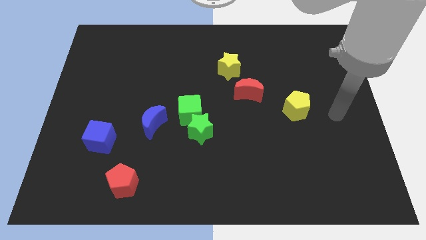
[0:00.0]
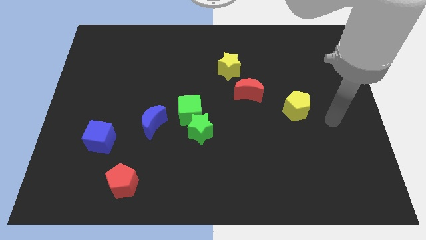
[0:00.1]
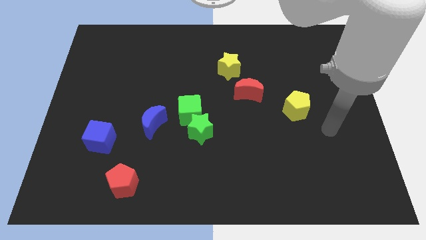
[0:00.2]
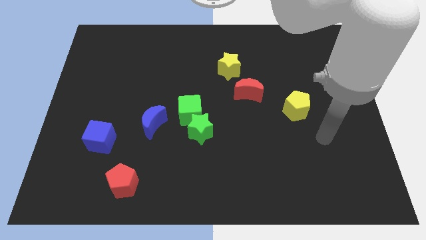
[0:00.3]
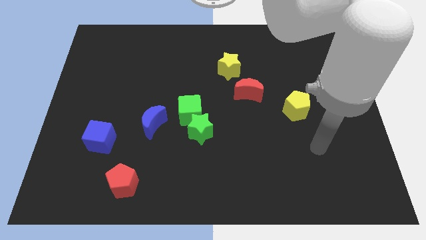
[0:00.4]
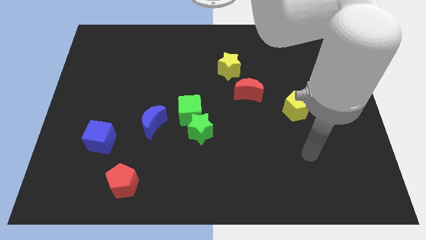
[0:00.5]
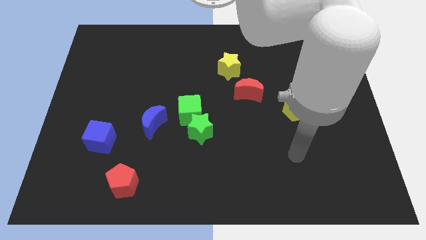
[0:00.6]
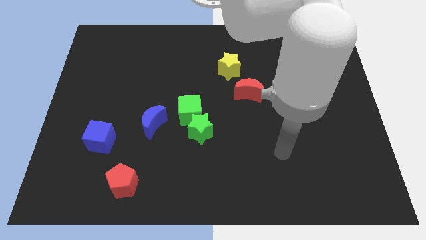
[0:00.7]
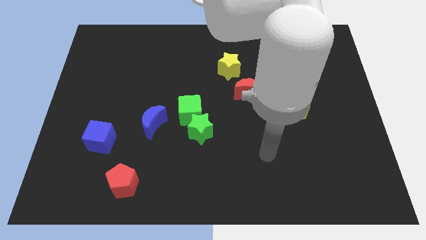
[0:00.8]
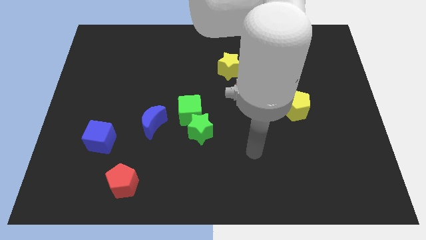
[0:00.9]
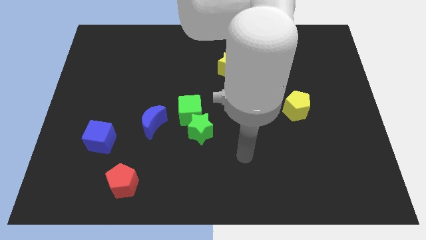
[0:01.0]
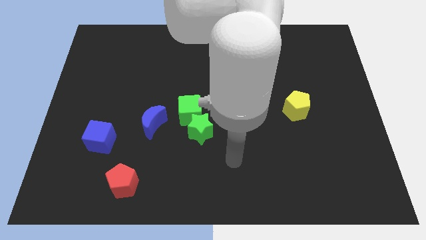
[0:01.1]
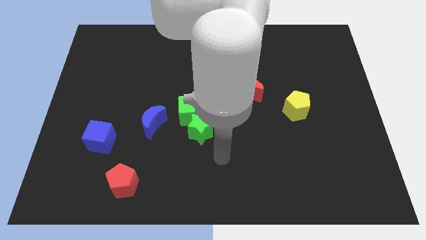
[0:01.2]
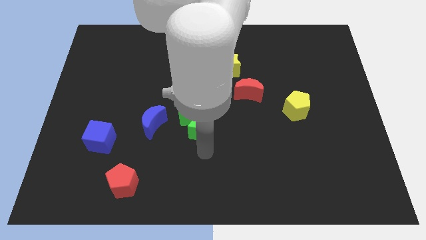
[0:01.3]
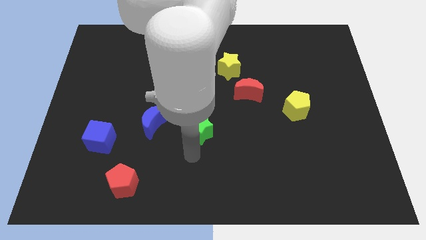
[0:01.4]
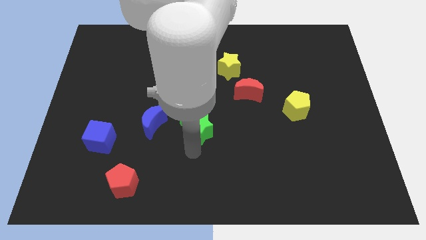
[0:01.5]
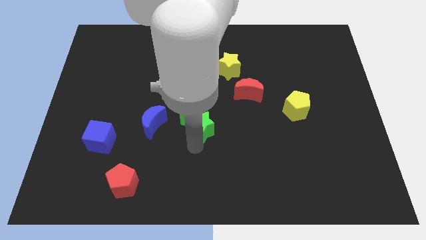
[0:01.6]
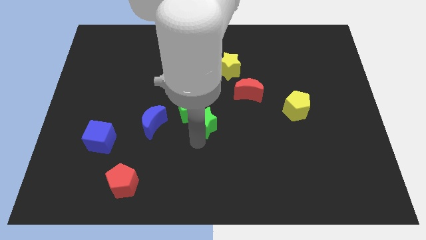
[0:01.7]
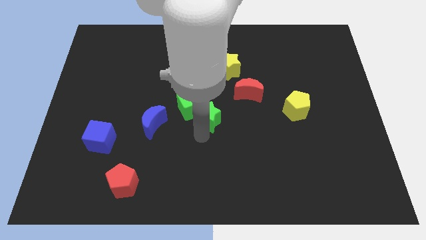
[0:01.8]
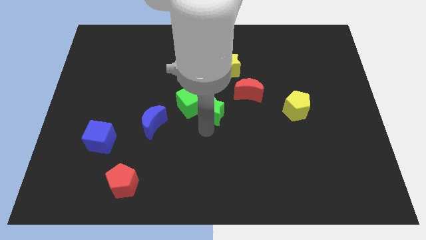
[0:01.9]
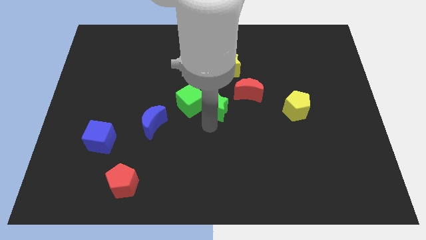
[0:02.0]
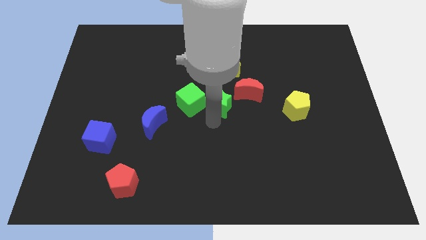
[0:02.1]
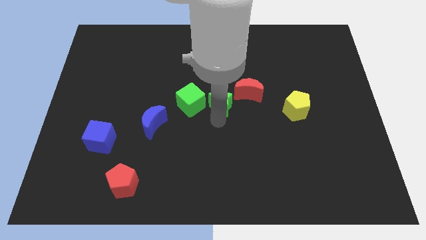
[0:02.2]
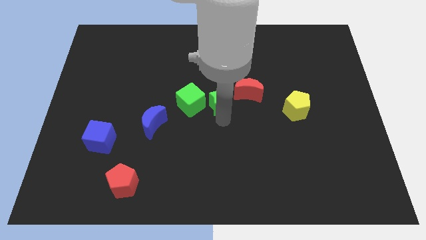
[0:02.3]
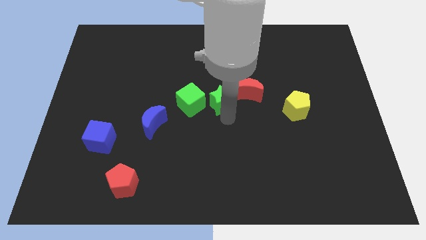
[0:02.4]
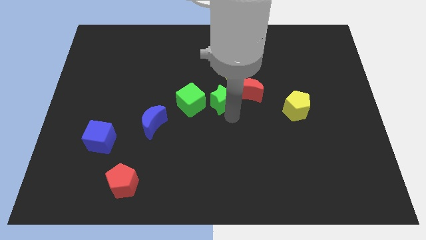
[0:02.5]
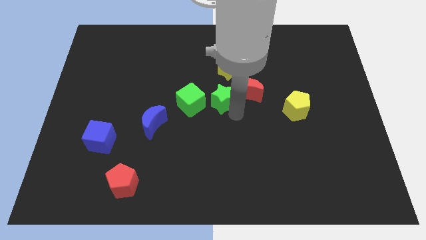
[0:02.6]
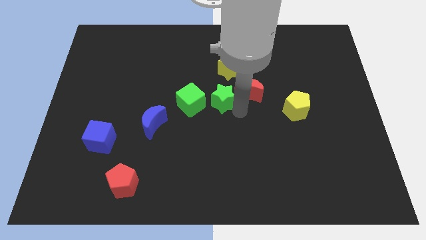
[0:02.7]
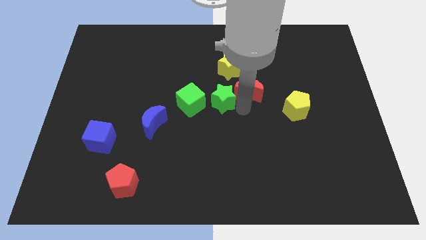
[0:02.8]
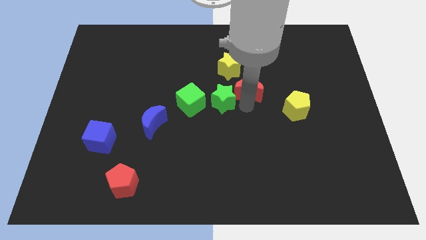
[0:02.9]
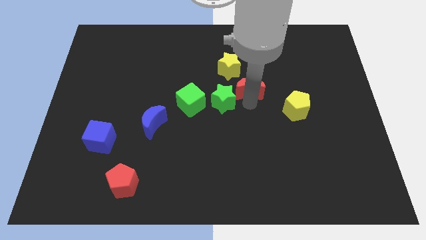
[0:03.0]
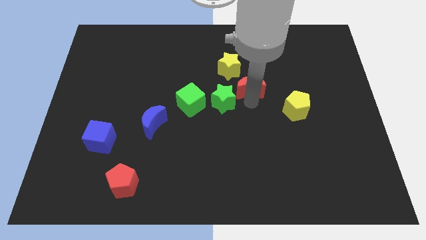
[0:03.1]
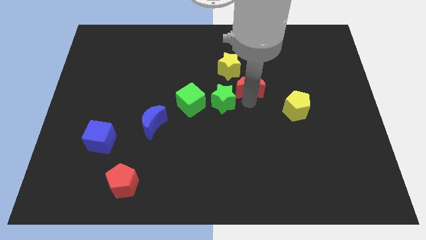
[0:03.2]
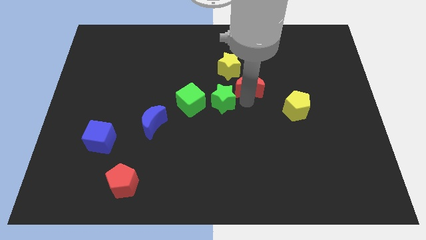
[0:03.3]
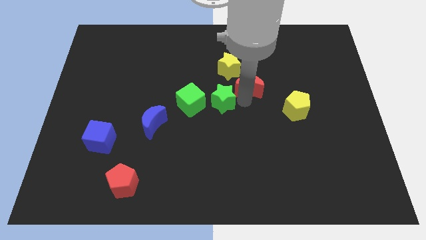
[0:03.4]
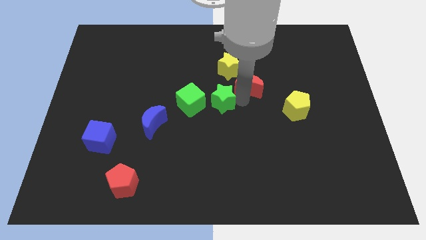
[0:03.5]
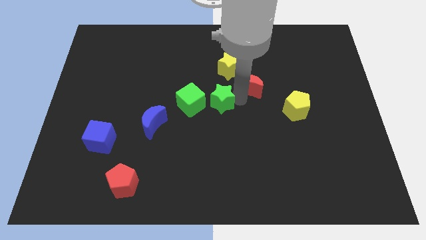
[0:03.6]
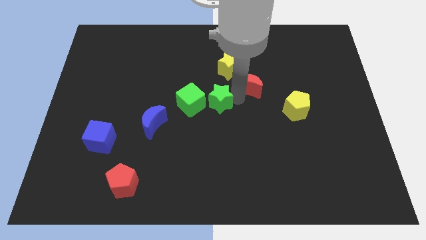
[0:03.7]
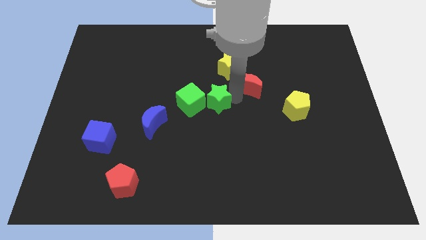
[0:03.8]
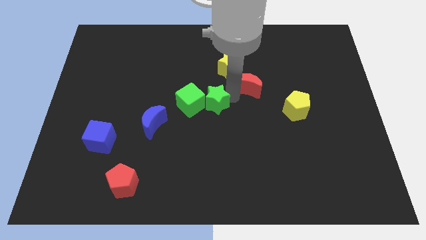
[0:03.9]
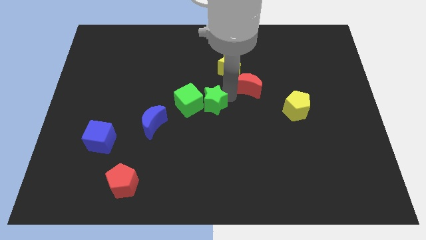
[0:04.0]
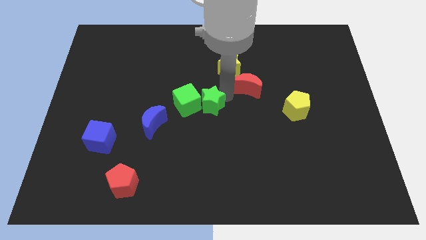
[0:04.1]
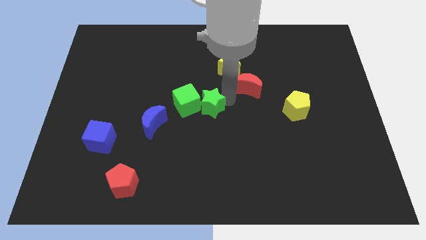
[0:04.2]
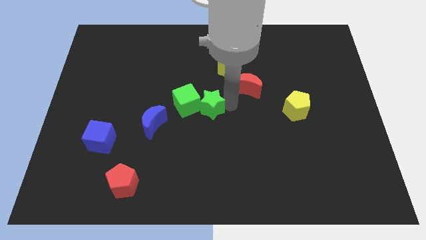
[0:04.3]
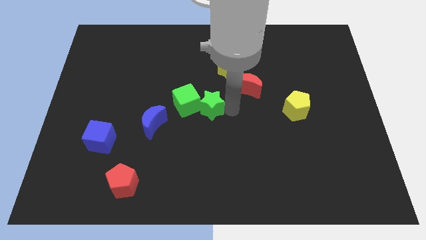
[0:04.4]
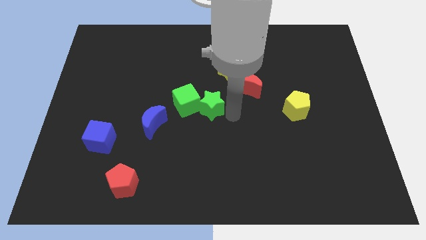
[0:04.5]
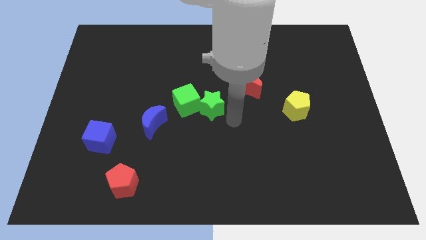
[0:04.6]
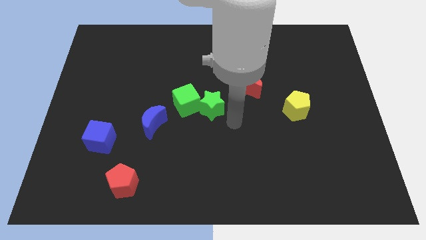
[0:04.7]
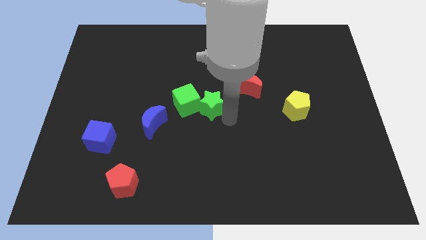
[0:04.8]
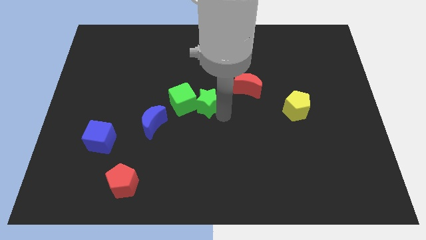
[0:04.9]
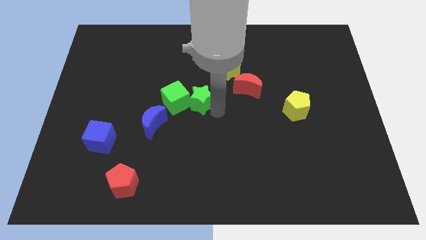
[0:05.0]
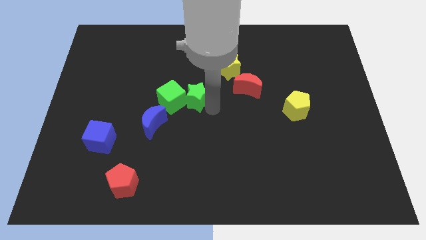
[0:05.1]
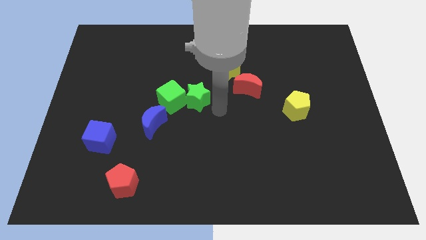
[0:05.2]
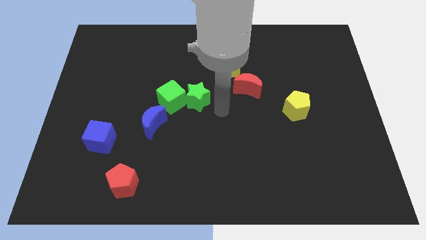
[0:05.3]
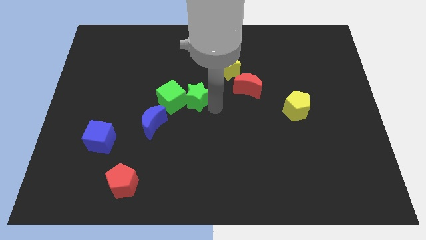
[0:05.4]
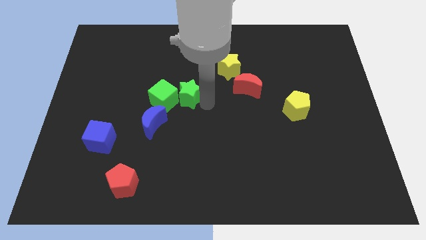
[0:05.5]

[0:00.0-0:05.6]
slide the green star upwards and to the left diagonally slightly

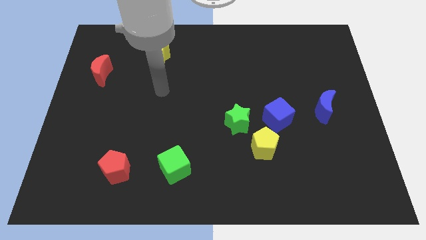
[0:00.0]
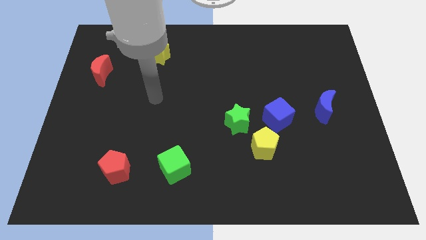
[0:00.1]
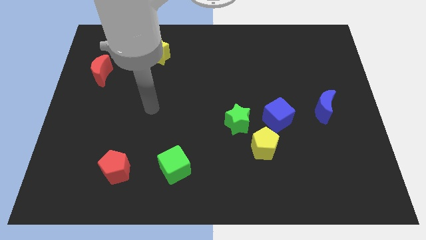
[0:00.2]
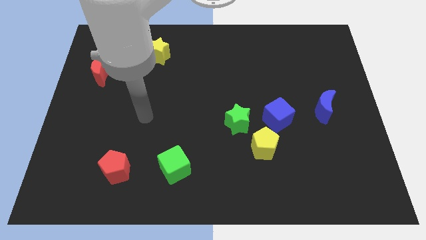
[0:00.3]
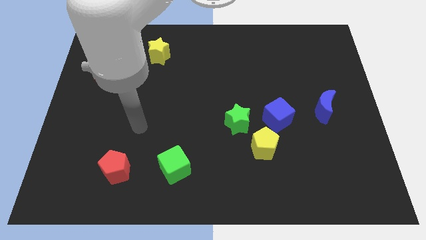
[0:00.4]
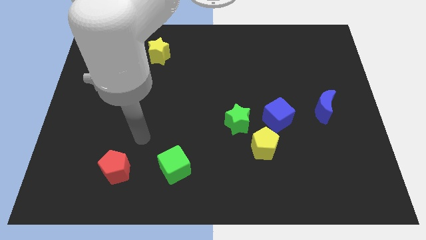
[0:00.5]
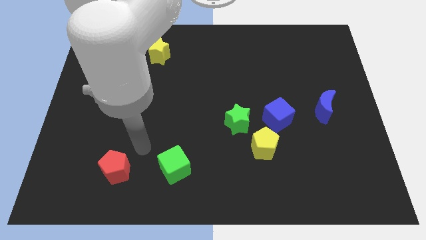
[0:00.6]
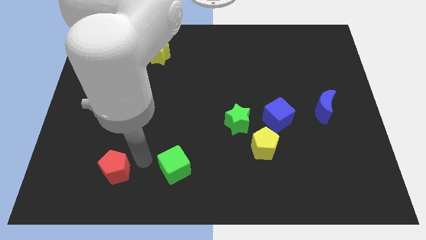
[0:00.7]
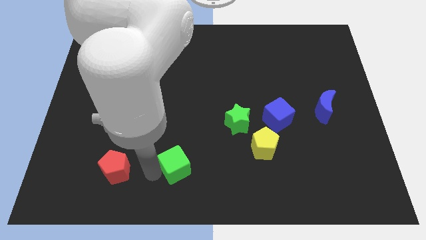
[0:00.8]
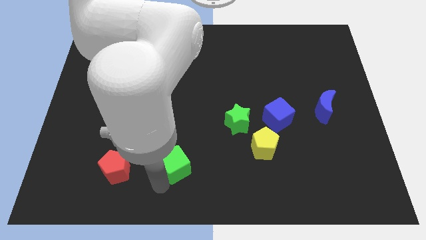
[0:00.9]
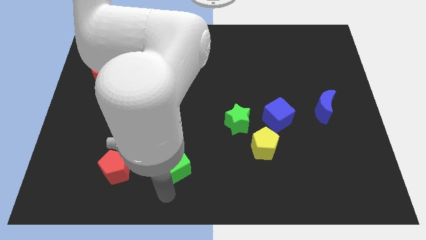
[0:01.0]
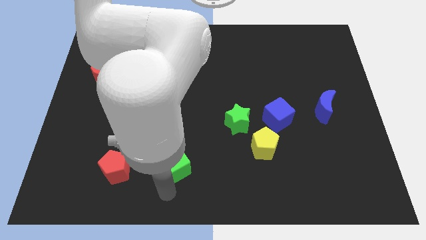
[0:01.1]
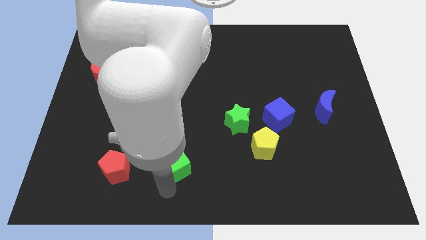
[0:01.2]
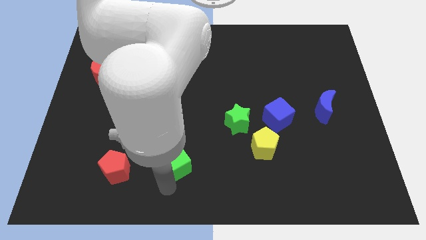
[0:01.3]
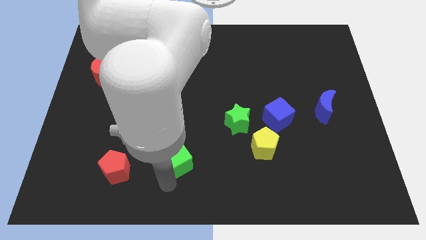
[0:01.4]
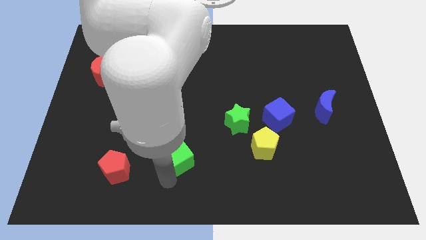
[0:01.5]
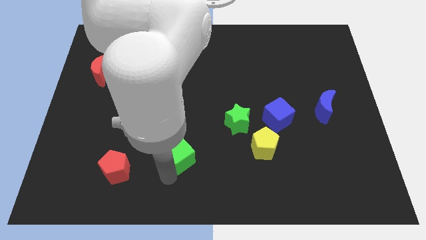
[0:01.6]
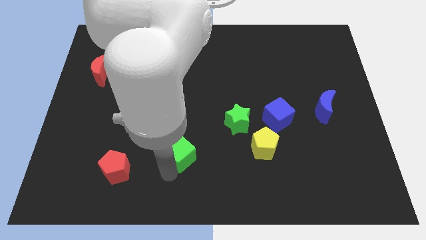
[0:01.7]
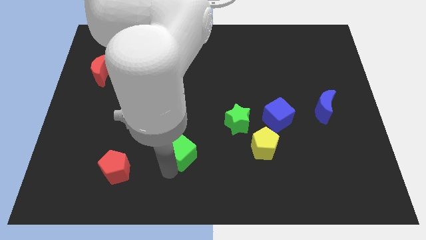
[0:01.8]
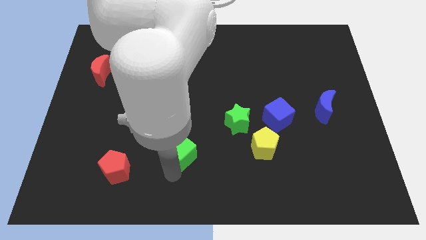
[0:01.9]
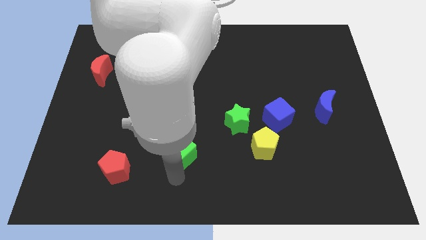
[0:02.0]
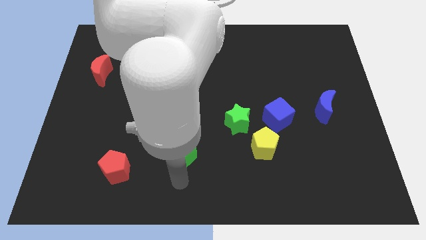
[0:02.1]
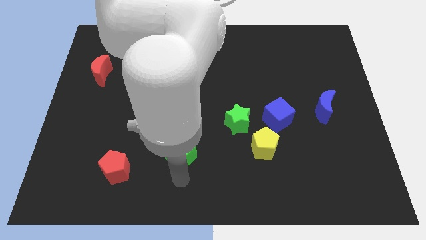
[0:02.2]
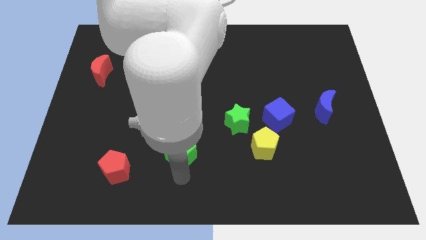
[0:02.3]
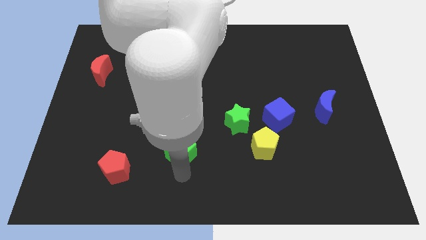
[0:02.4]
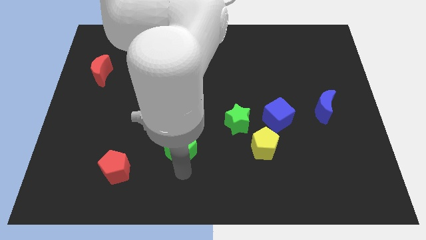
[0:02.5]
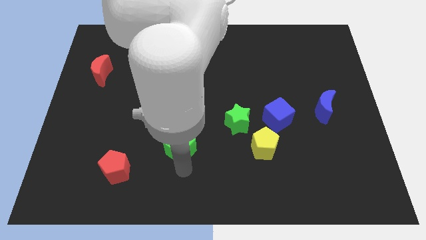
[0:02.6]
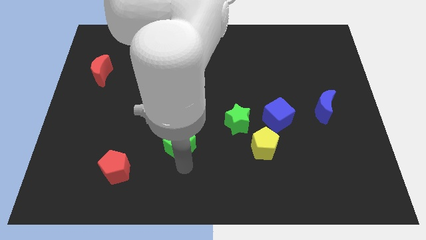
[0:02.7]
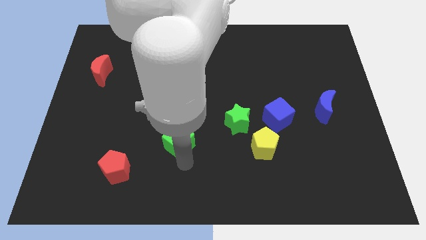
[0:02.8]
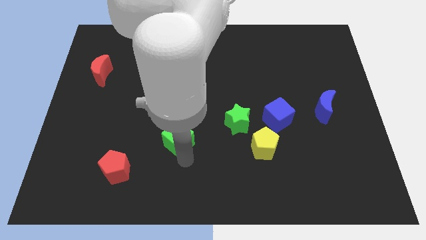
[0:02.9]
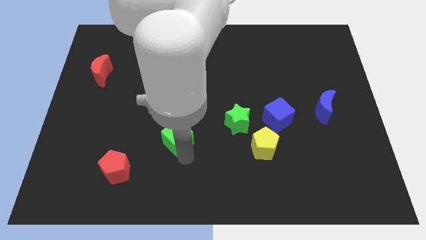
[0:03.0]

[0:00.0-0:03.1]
slightly move the green cube upwards
